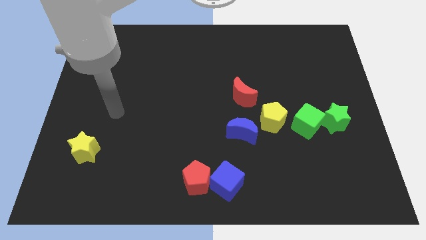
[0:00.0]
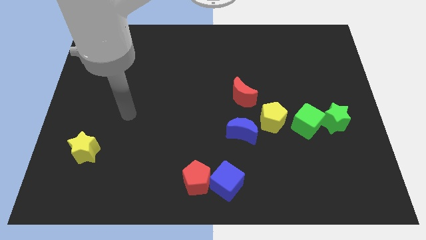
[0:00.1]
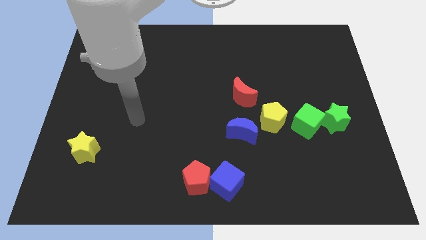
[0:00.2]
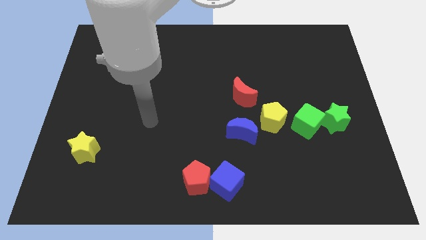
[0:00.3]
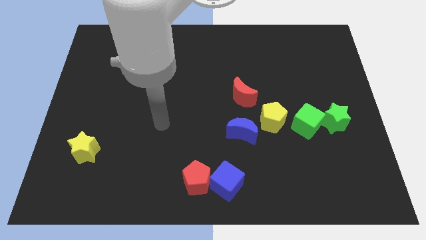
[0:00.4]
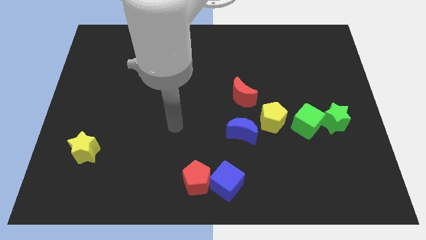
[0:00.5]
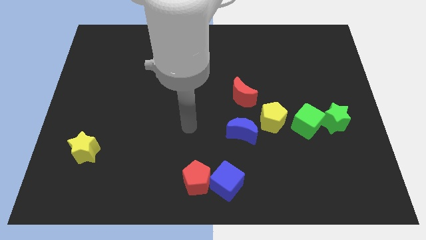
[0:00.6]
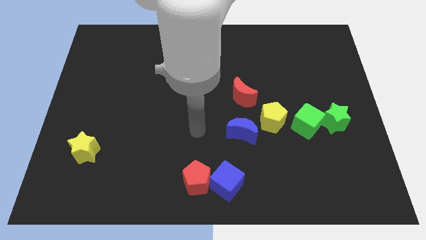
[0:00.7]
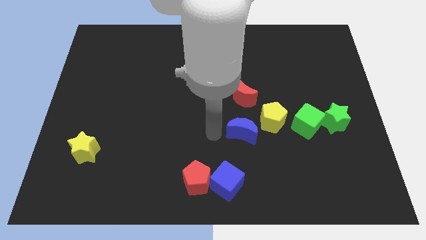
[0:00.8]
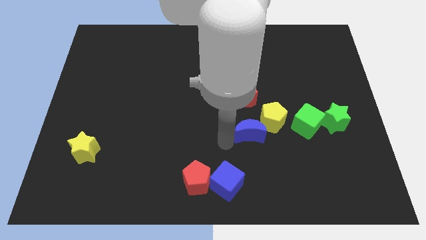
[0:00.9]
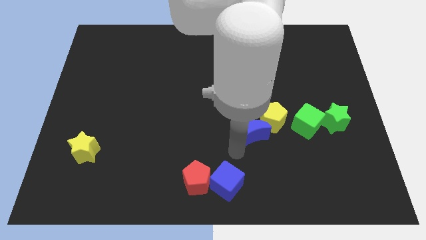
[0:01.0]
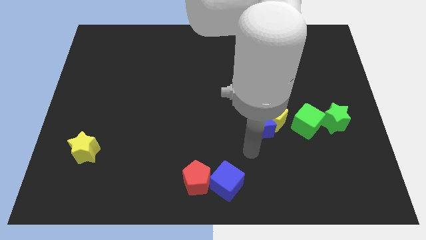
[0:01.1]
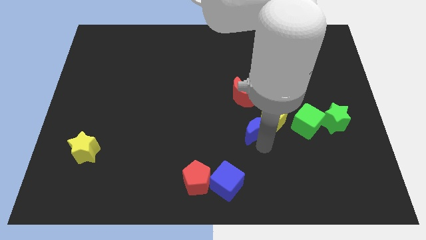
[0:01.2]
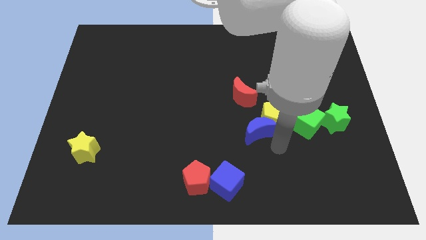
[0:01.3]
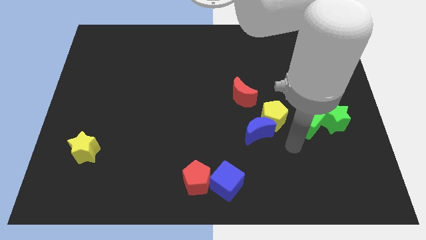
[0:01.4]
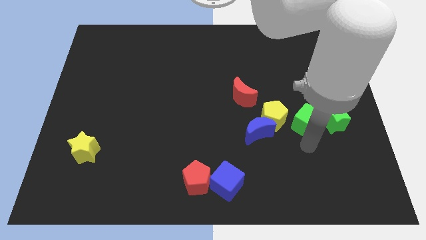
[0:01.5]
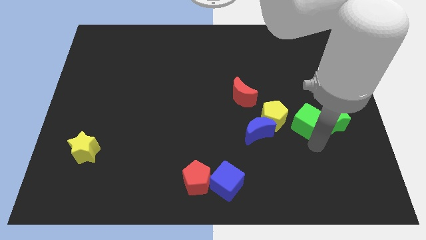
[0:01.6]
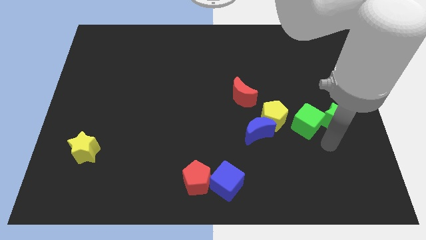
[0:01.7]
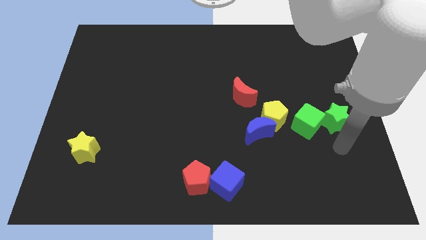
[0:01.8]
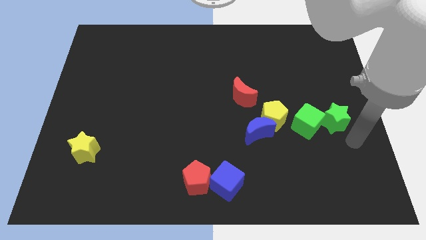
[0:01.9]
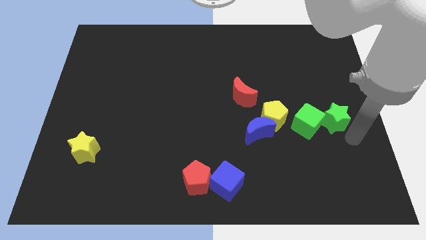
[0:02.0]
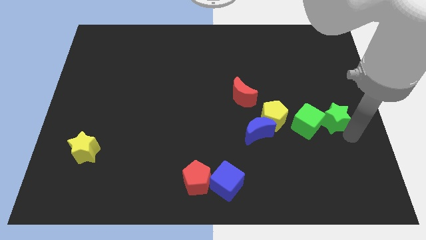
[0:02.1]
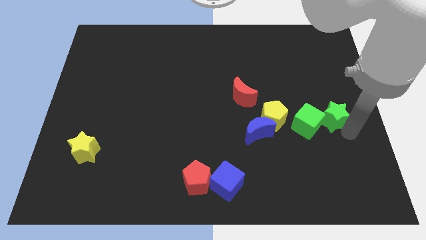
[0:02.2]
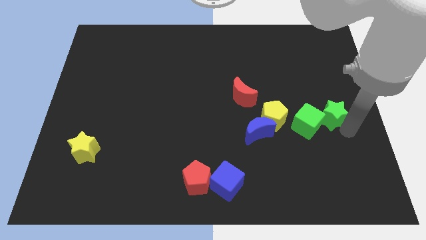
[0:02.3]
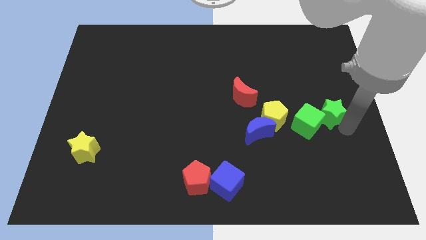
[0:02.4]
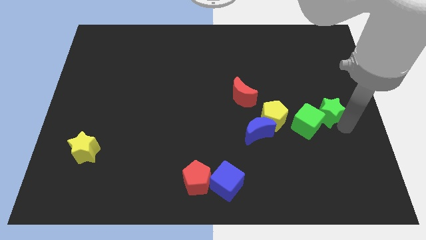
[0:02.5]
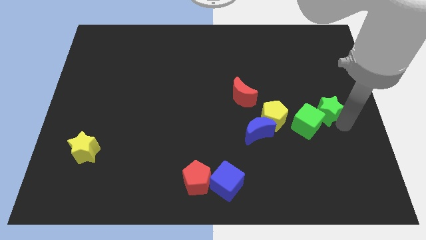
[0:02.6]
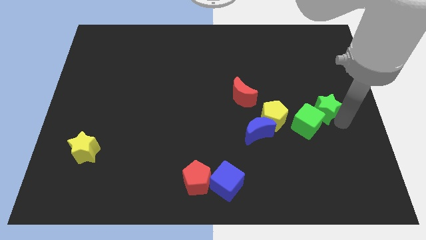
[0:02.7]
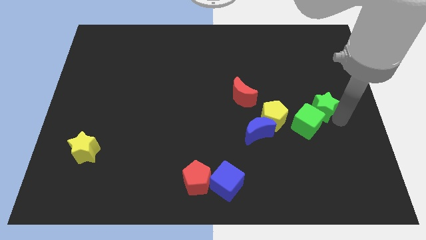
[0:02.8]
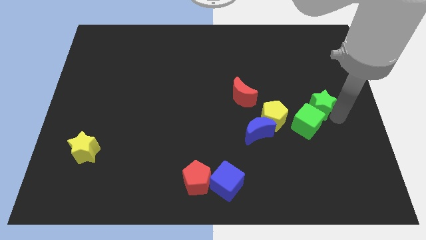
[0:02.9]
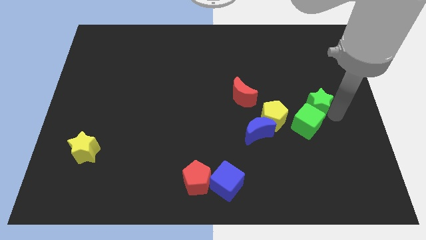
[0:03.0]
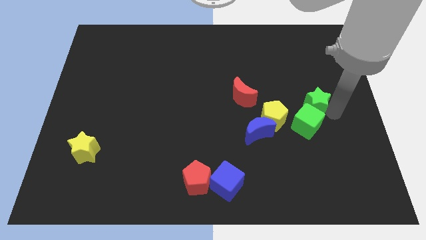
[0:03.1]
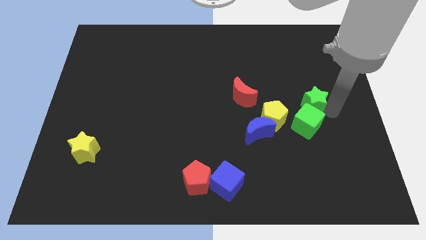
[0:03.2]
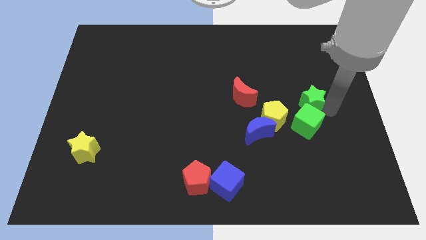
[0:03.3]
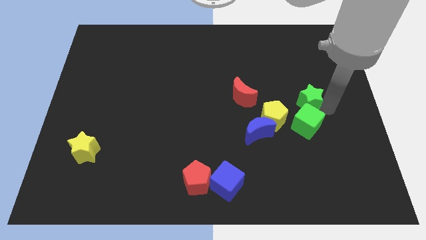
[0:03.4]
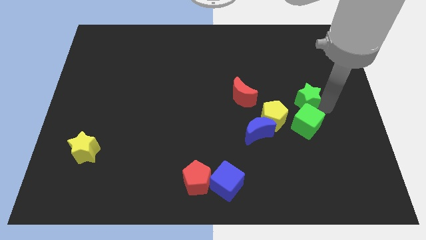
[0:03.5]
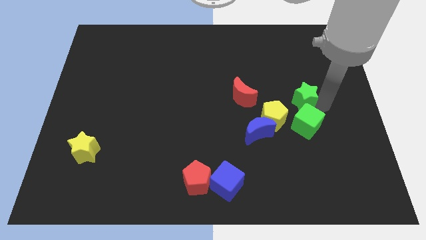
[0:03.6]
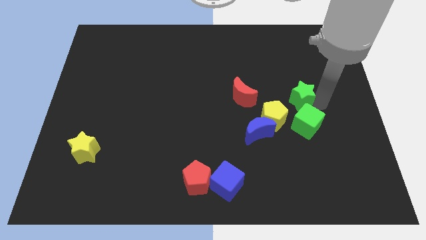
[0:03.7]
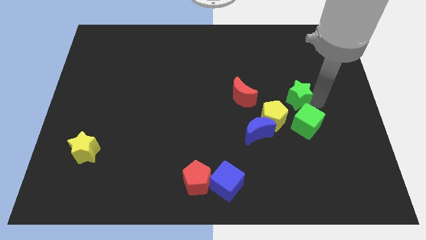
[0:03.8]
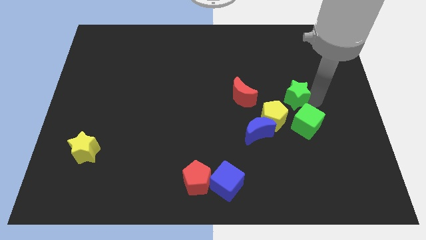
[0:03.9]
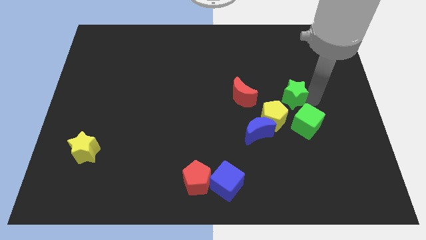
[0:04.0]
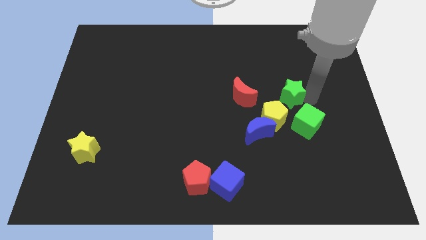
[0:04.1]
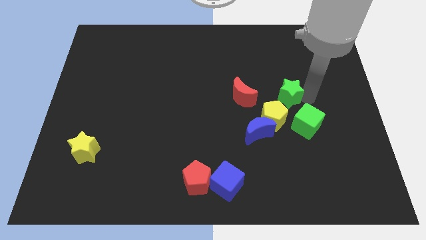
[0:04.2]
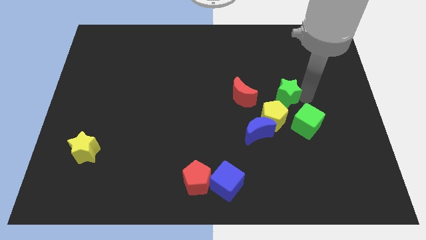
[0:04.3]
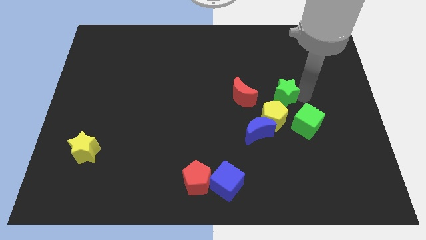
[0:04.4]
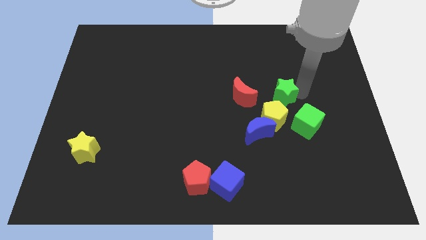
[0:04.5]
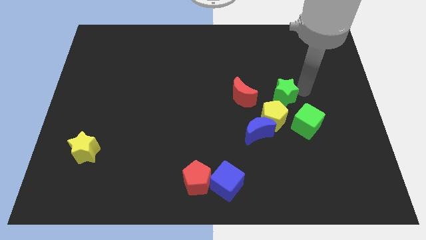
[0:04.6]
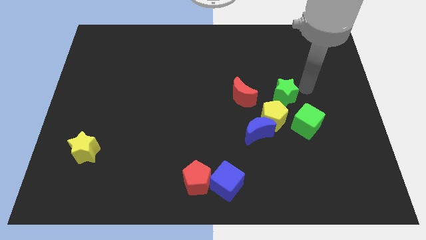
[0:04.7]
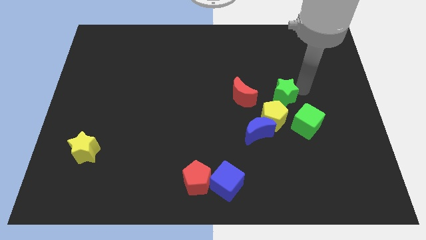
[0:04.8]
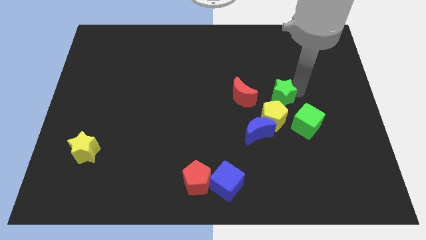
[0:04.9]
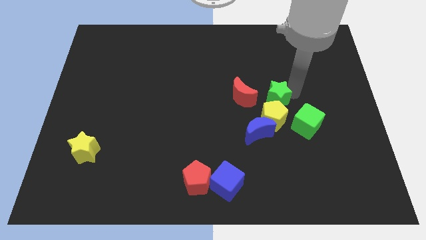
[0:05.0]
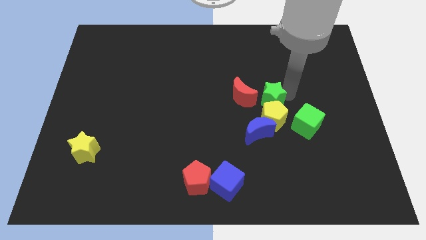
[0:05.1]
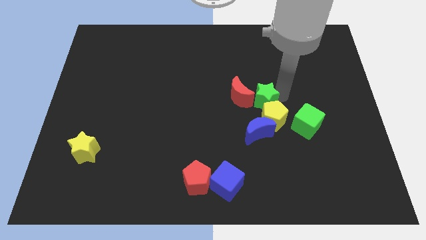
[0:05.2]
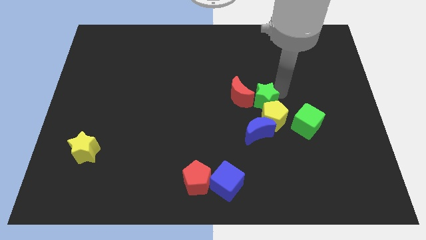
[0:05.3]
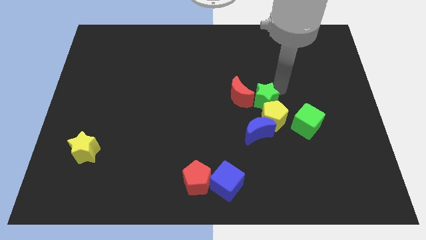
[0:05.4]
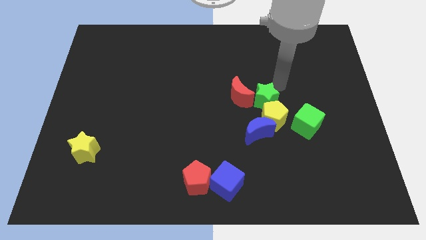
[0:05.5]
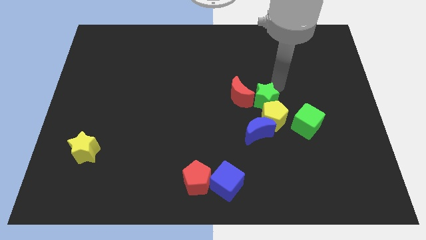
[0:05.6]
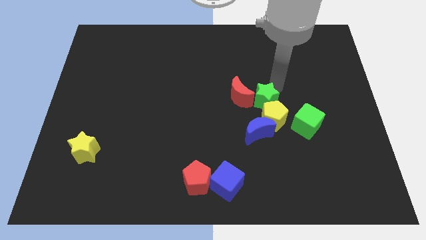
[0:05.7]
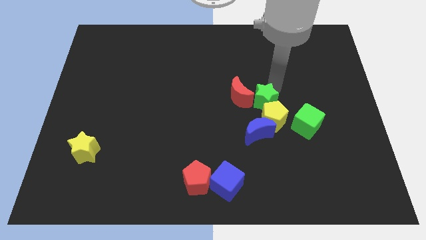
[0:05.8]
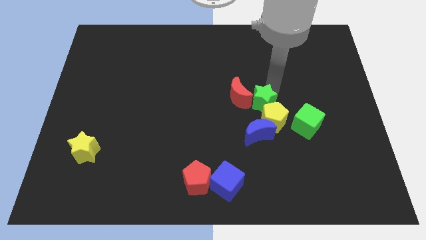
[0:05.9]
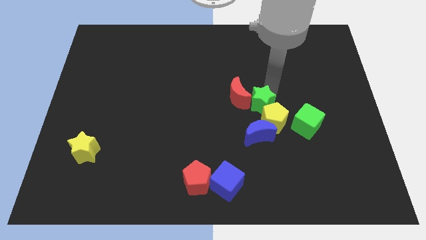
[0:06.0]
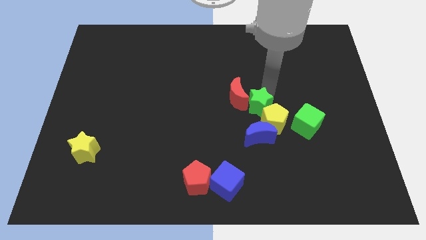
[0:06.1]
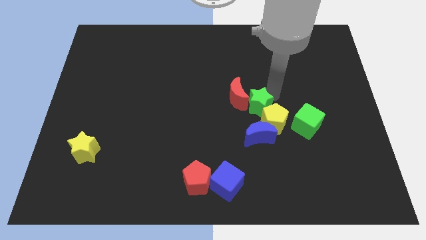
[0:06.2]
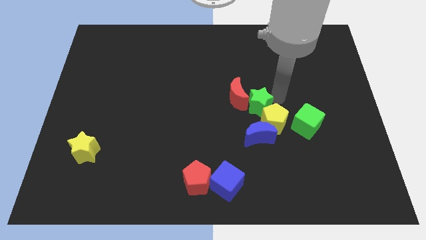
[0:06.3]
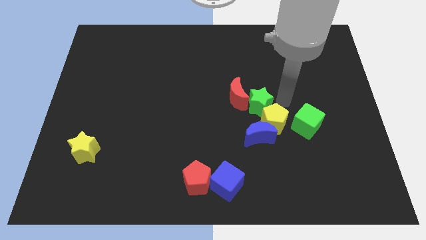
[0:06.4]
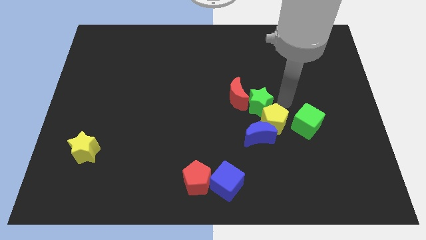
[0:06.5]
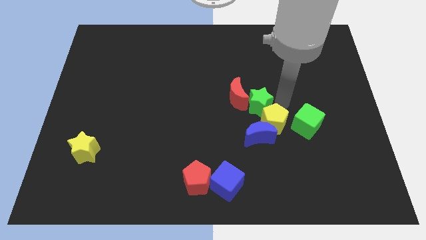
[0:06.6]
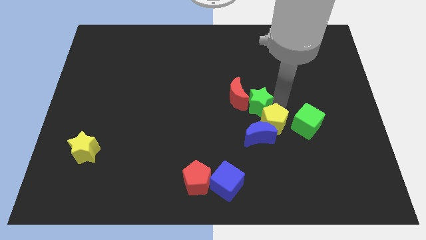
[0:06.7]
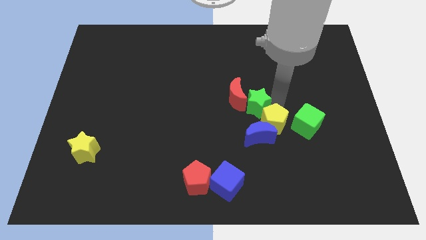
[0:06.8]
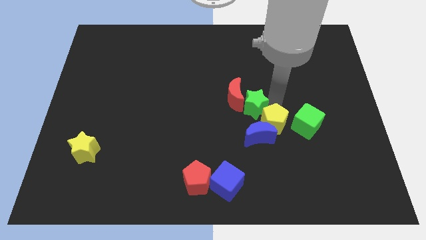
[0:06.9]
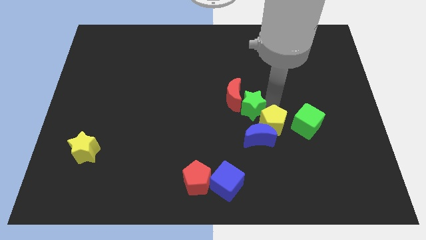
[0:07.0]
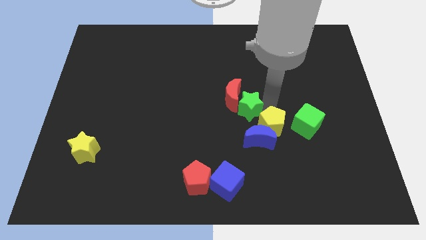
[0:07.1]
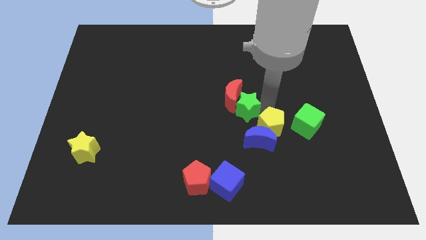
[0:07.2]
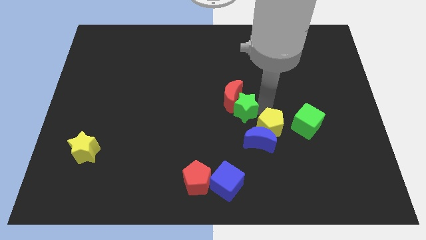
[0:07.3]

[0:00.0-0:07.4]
slide the green star to the left
